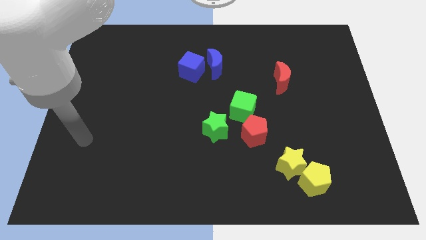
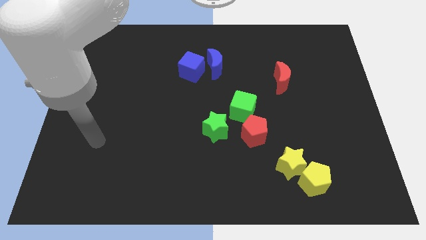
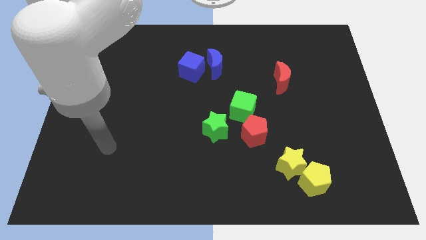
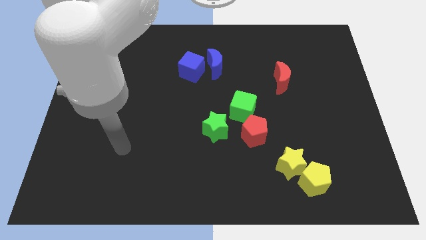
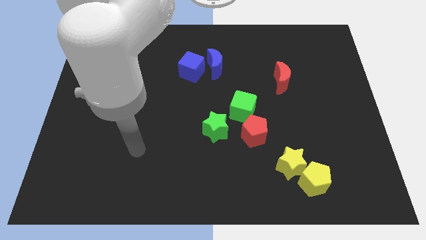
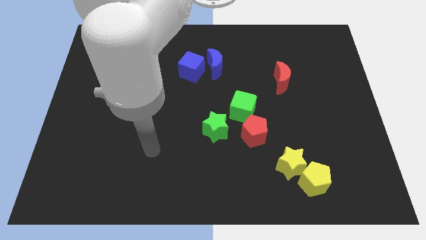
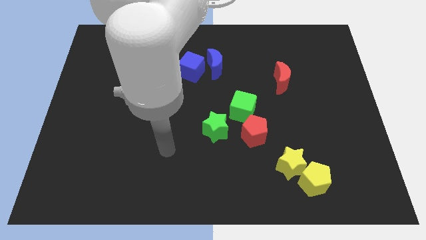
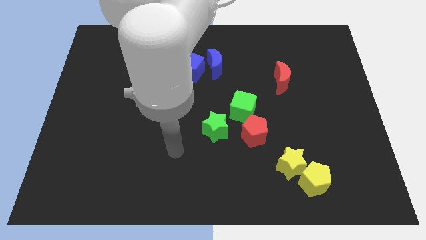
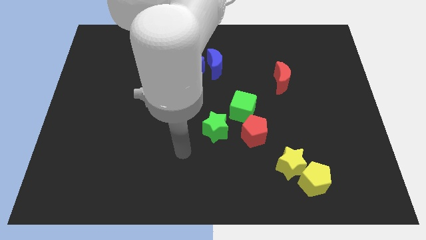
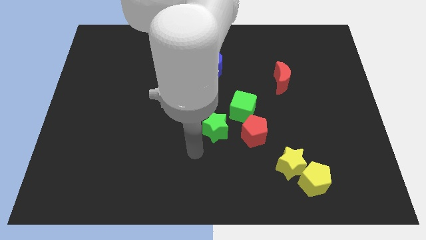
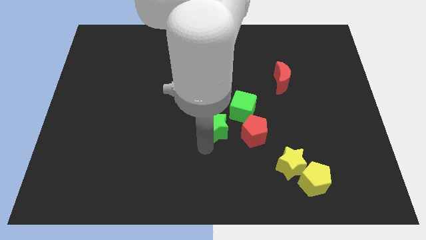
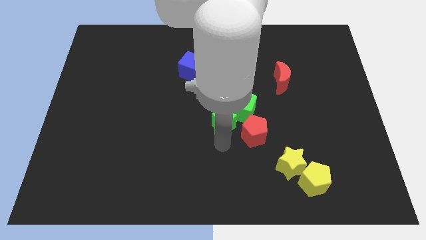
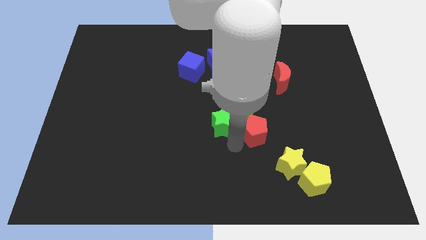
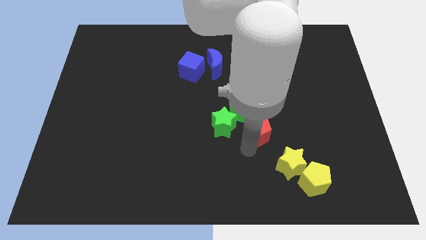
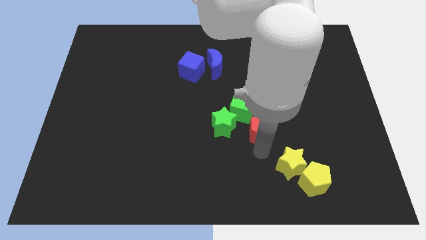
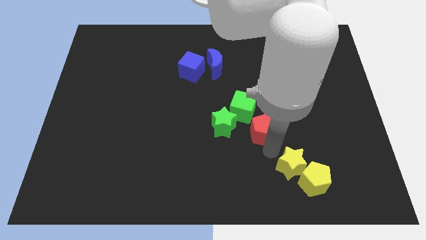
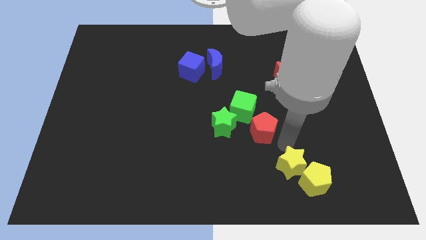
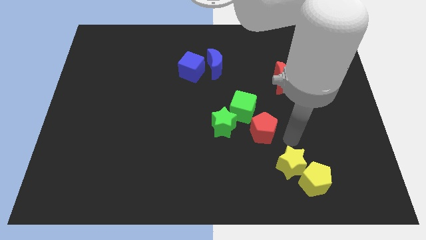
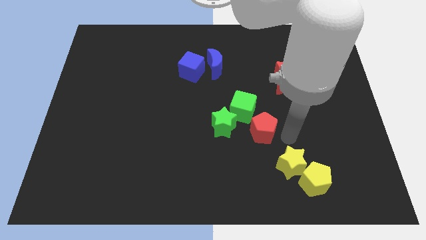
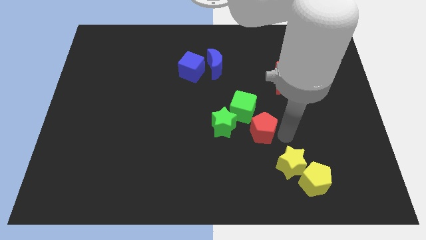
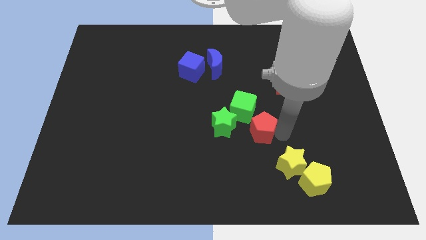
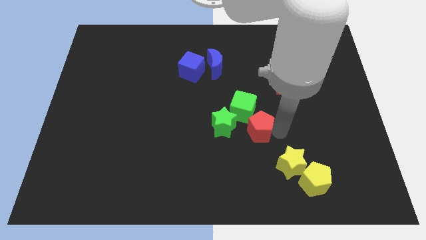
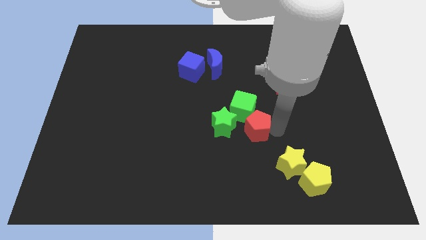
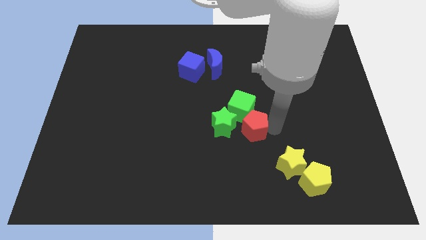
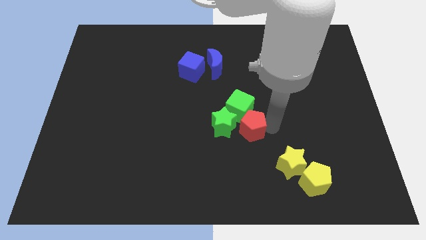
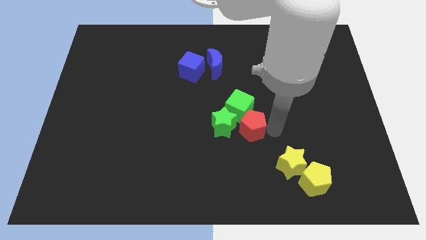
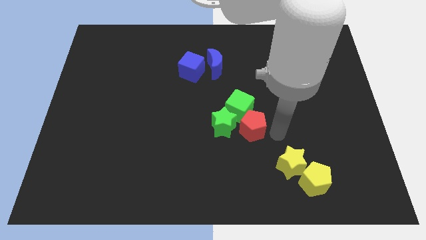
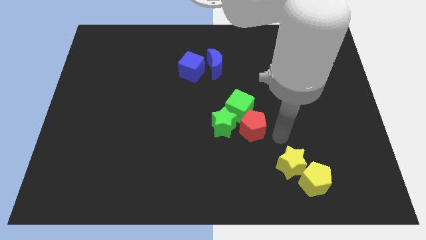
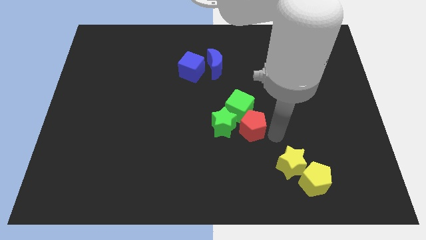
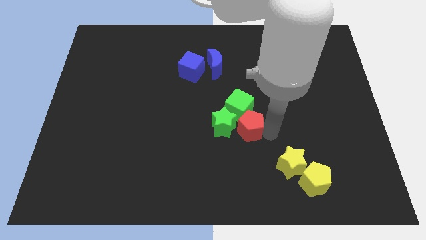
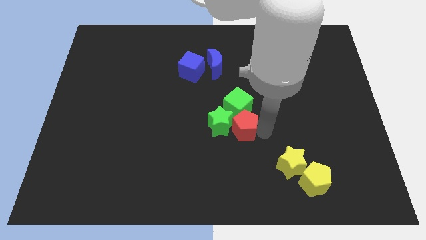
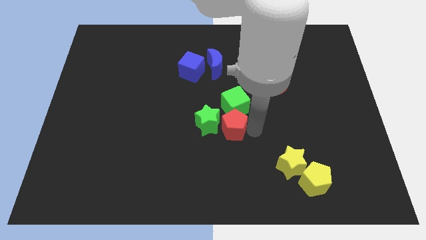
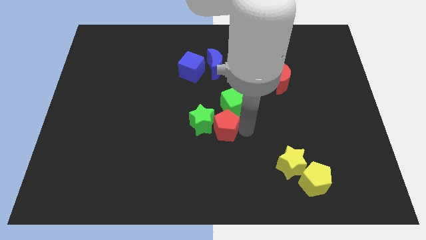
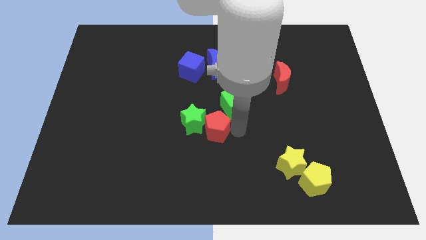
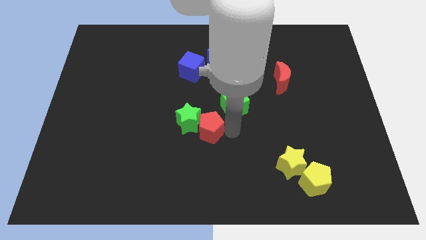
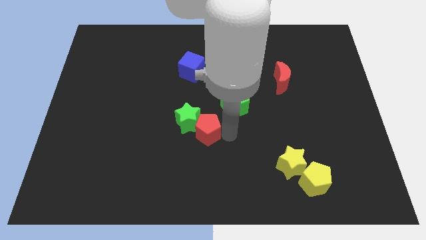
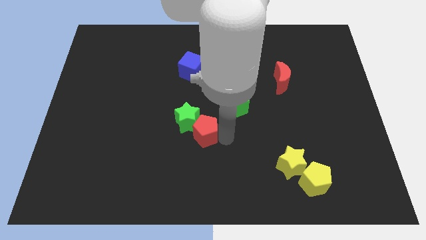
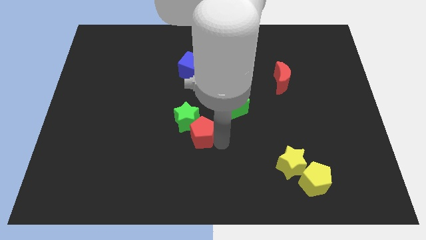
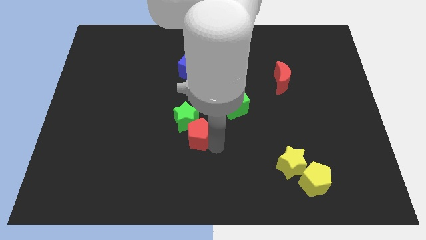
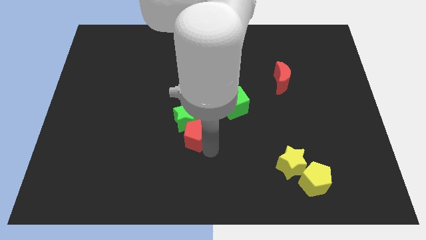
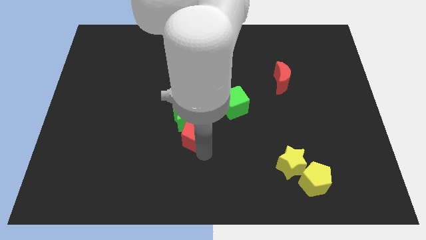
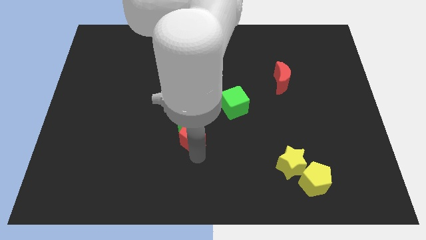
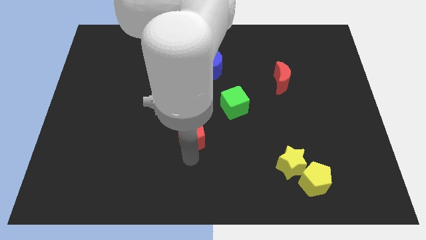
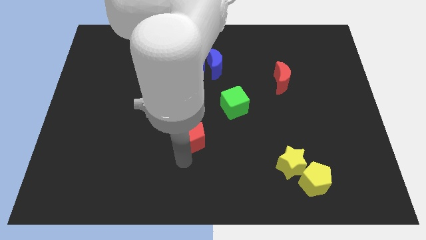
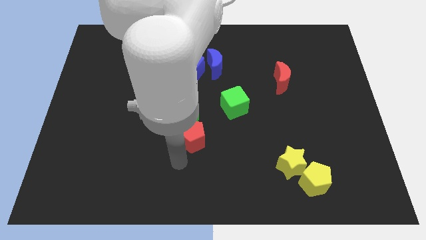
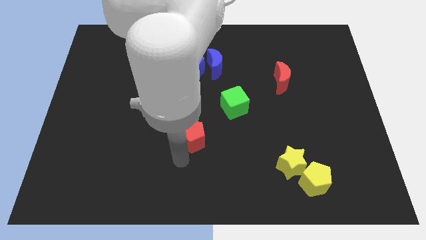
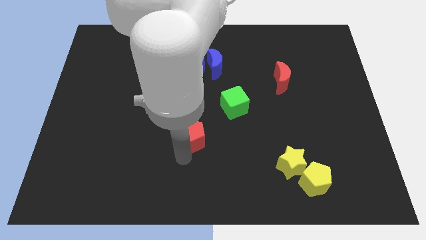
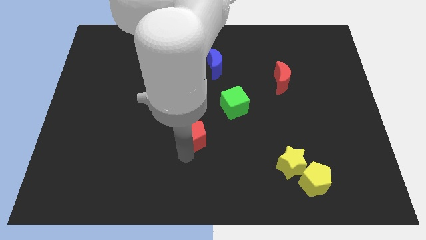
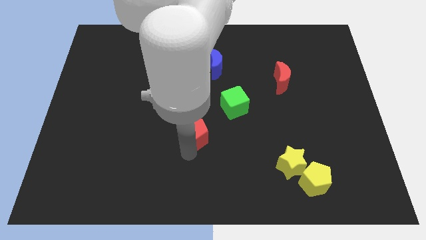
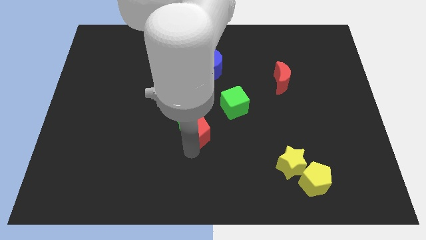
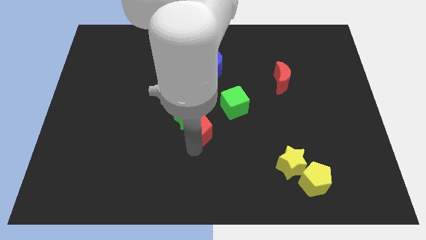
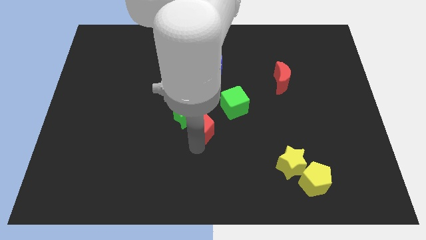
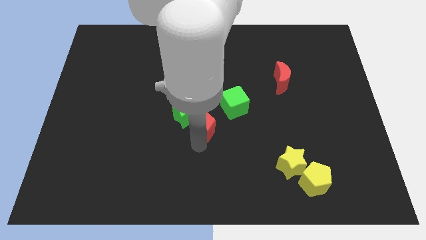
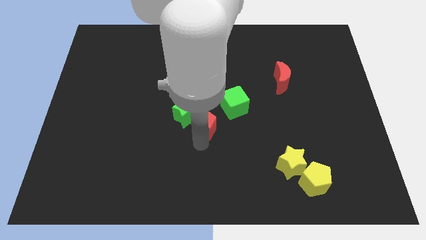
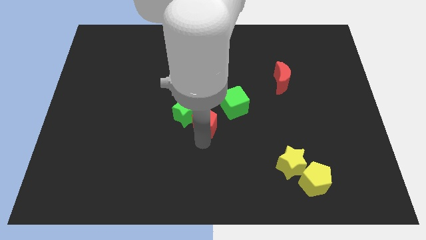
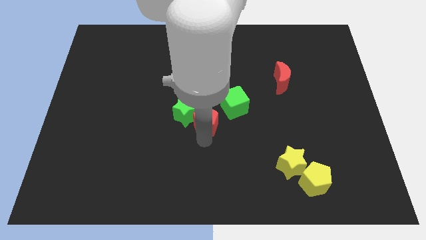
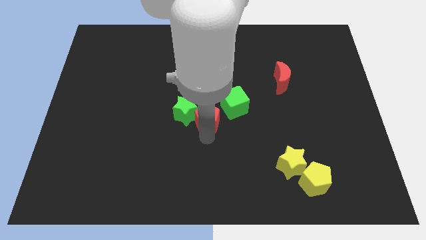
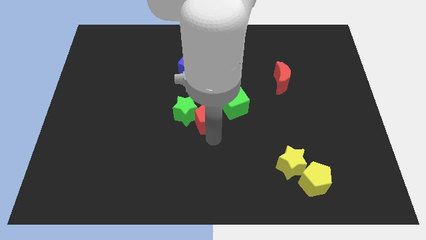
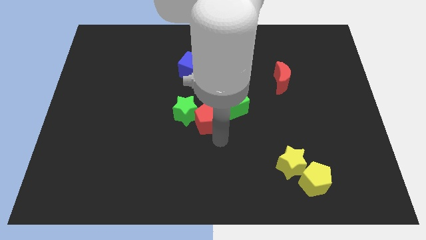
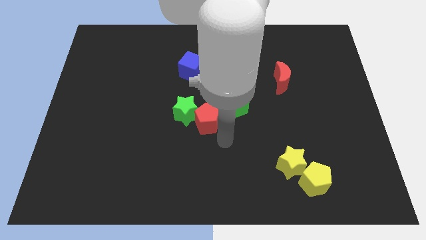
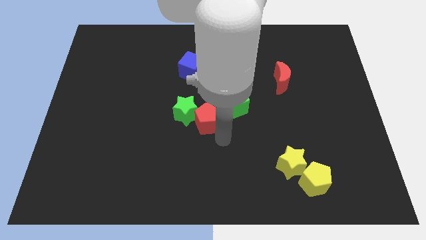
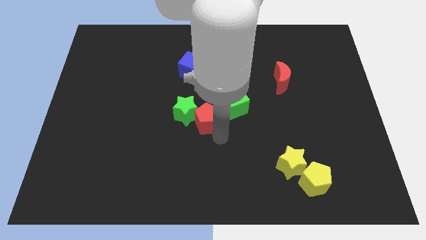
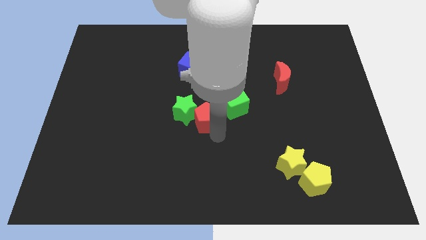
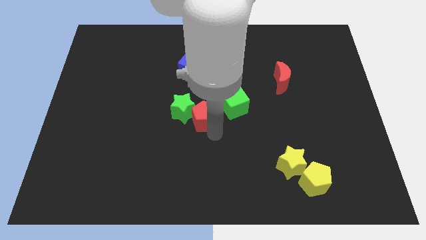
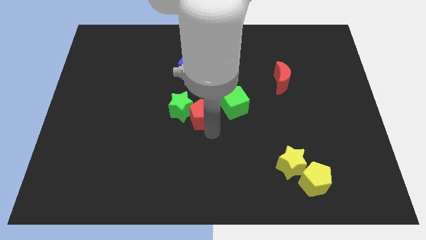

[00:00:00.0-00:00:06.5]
move the red pentagon to the bottom side of the blue cube

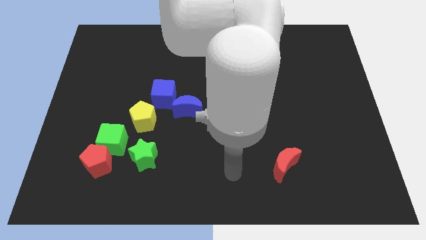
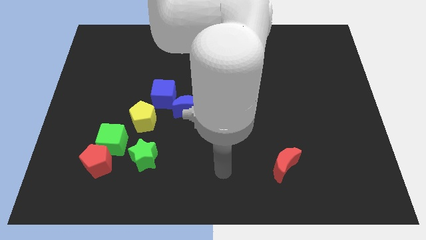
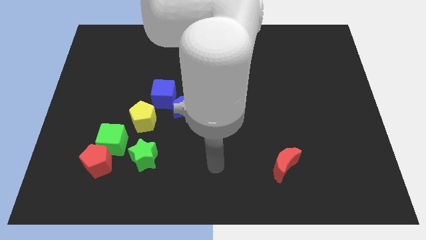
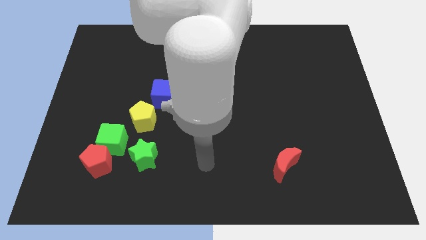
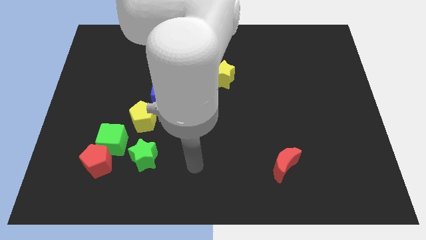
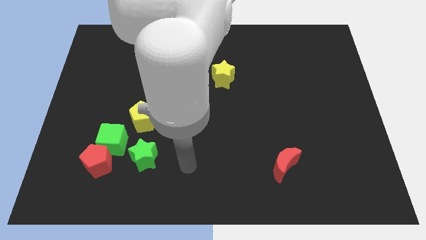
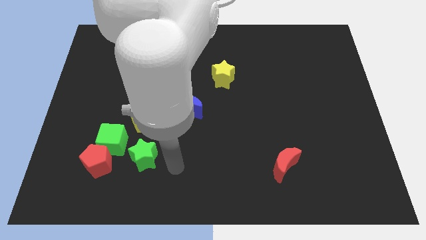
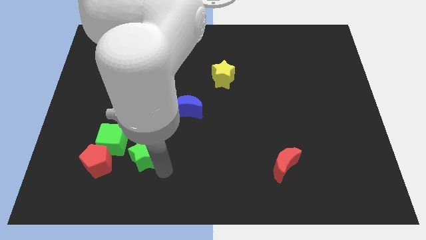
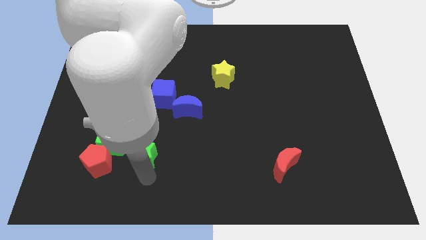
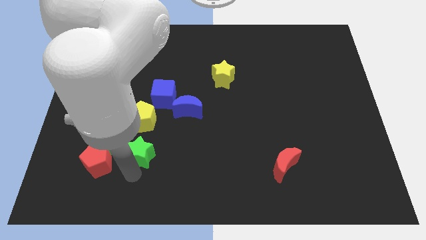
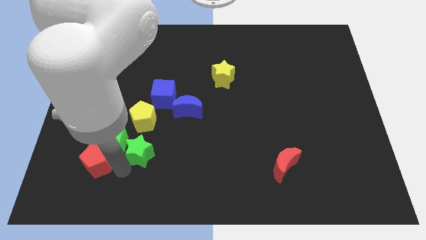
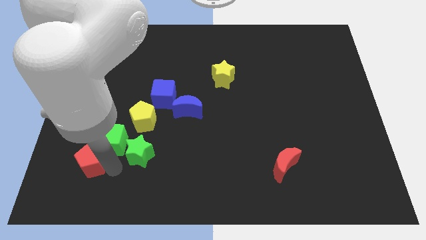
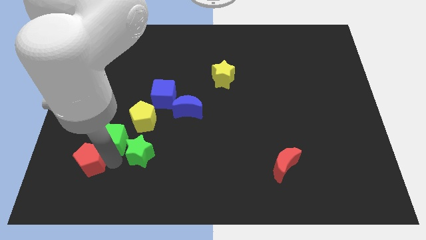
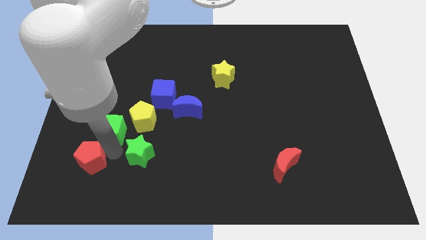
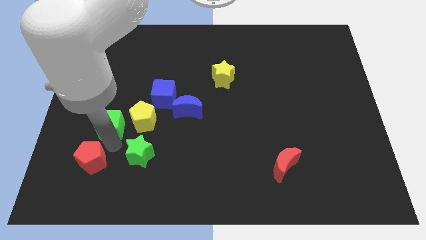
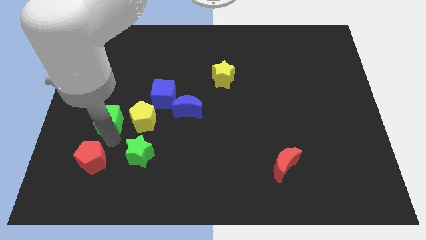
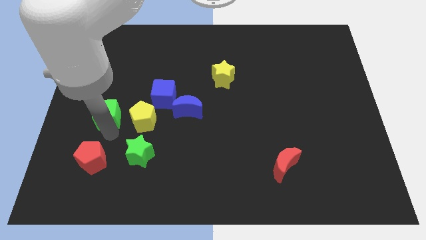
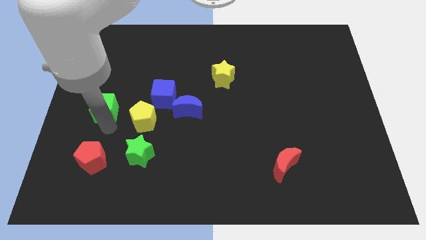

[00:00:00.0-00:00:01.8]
put the green cube left of the blue cube
